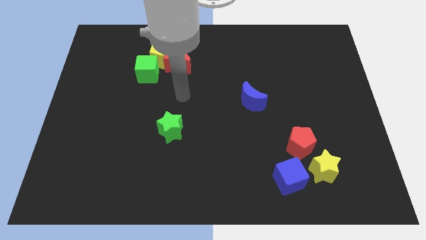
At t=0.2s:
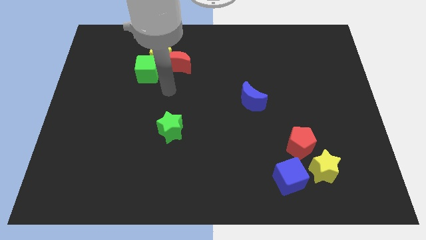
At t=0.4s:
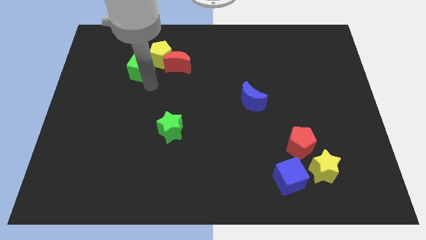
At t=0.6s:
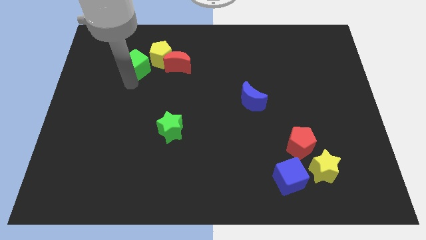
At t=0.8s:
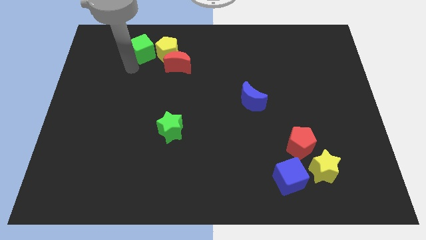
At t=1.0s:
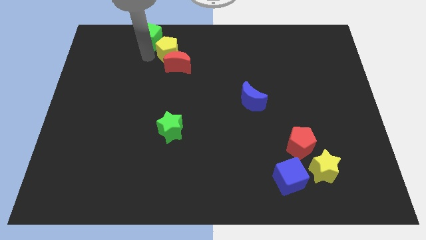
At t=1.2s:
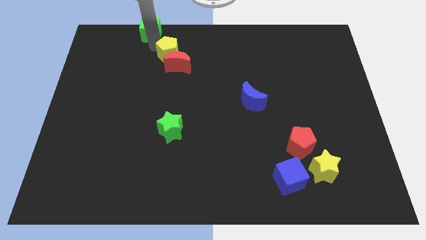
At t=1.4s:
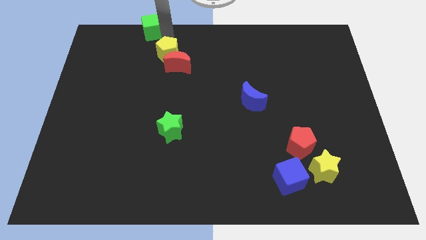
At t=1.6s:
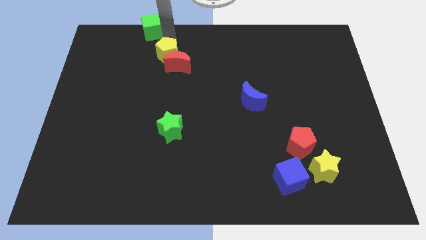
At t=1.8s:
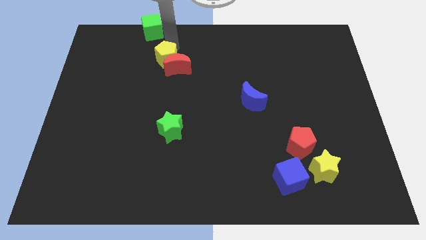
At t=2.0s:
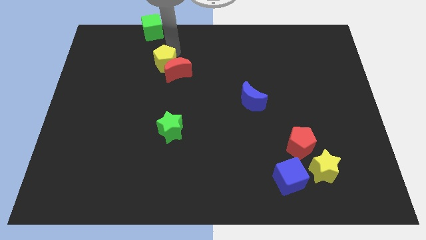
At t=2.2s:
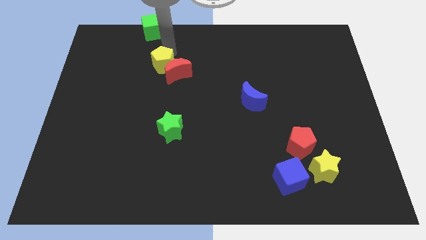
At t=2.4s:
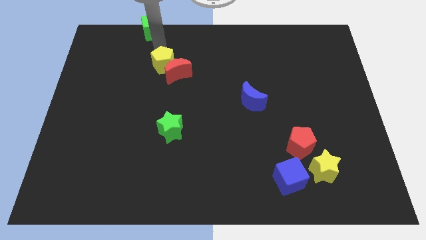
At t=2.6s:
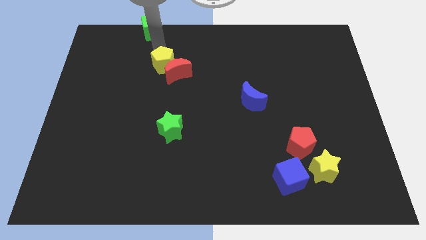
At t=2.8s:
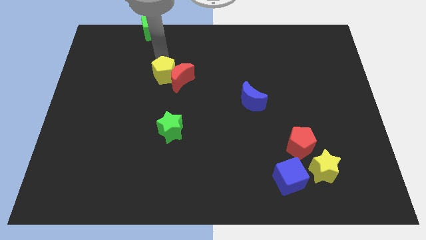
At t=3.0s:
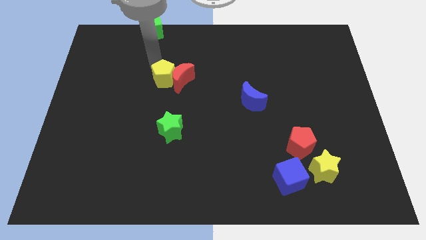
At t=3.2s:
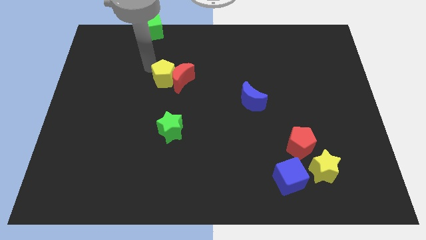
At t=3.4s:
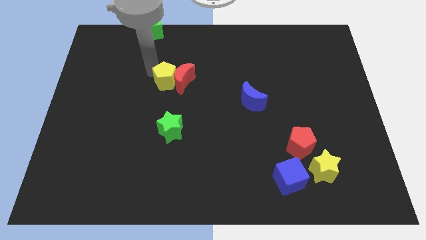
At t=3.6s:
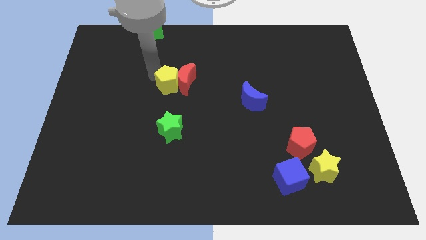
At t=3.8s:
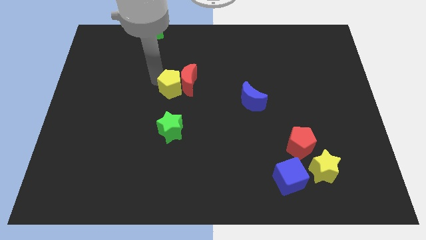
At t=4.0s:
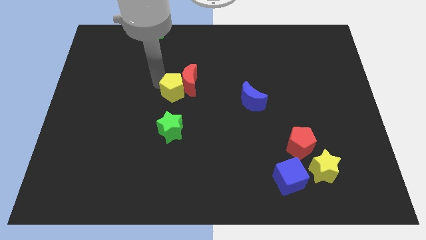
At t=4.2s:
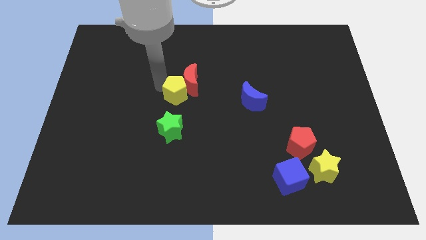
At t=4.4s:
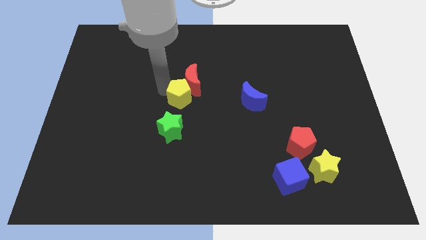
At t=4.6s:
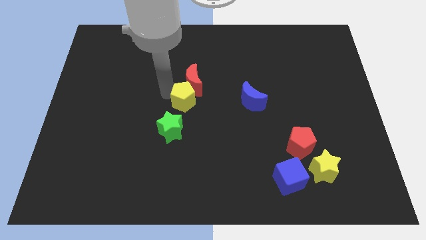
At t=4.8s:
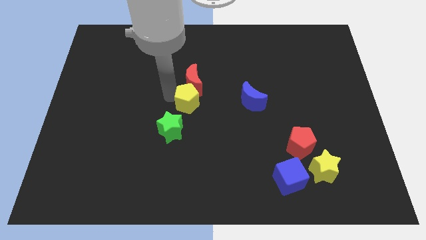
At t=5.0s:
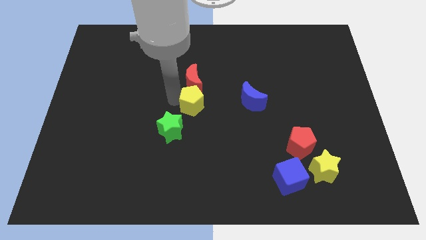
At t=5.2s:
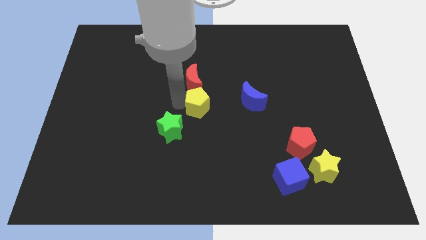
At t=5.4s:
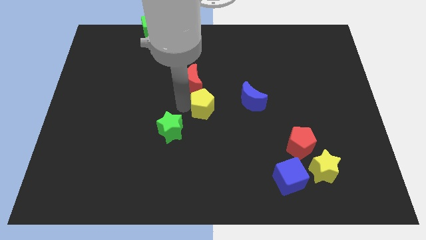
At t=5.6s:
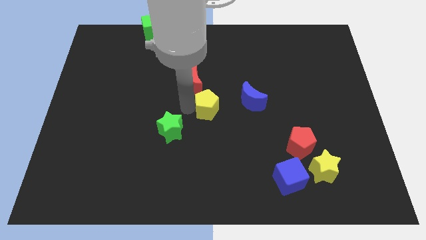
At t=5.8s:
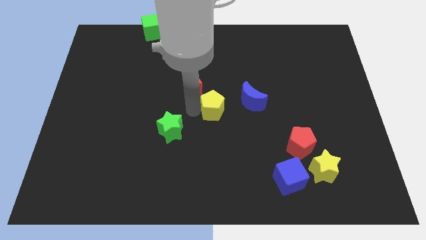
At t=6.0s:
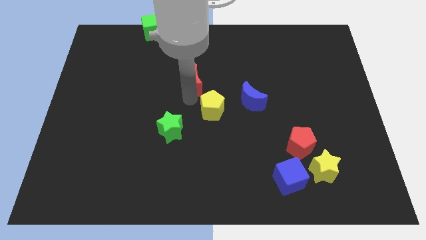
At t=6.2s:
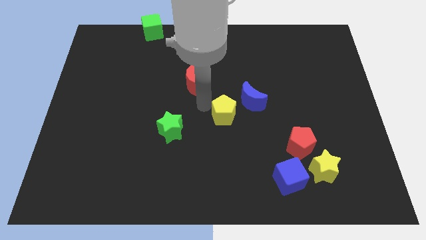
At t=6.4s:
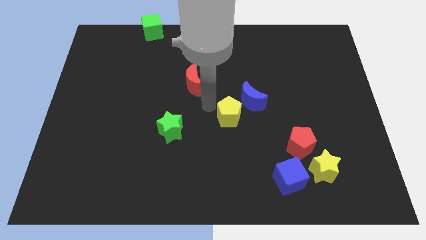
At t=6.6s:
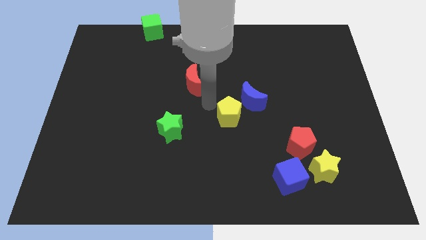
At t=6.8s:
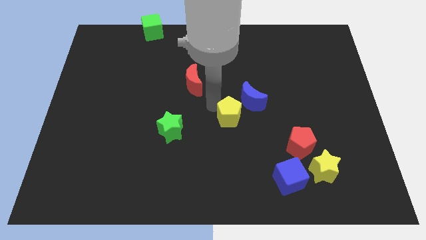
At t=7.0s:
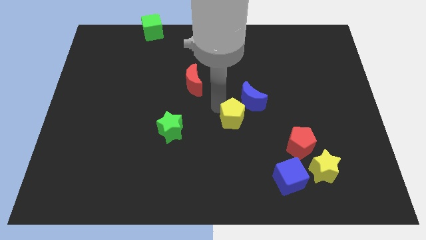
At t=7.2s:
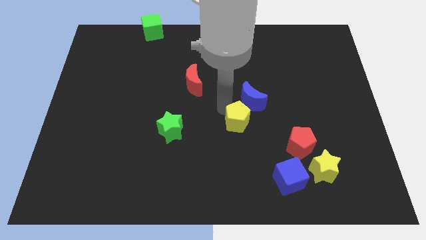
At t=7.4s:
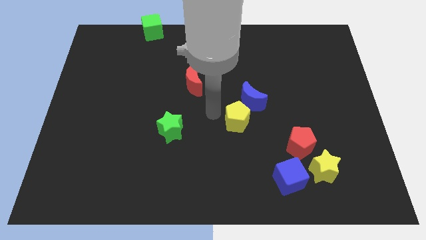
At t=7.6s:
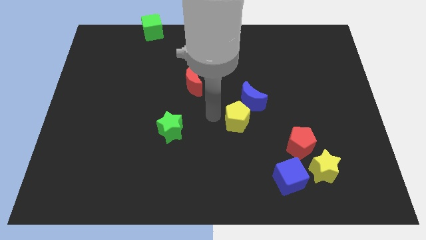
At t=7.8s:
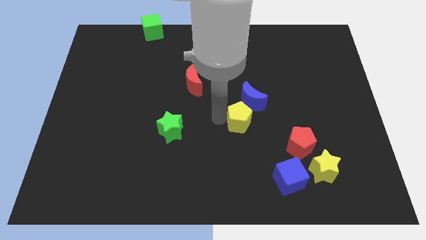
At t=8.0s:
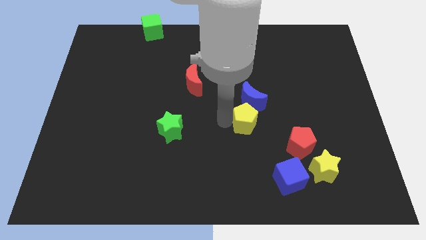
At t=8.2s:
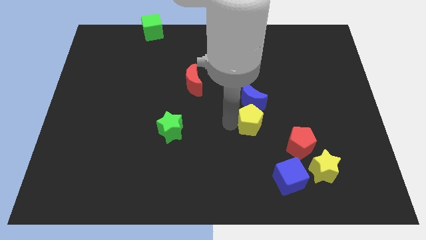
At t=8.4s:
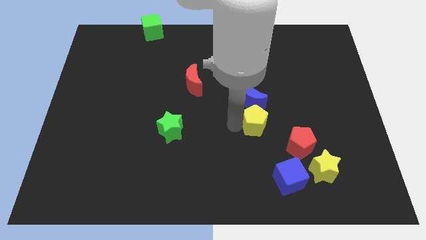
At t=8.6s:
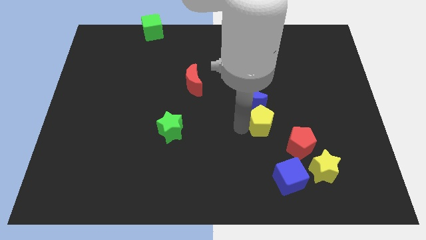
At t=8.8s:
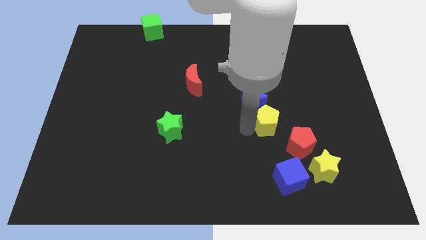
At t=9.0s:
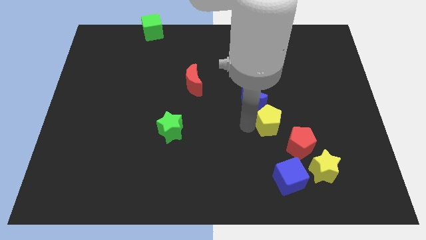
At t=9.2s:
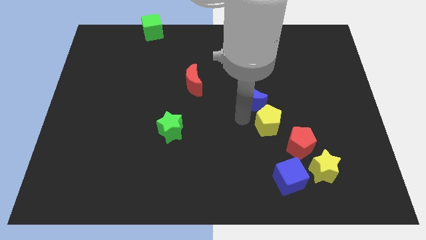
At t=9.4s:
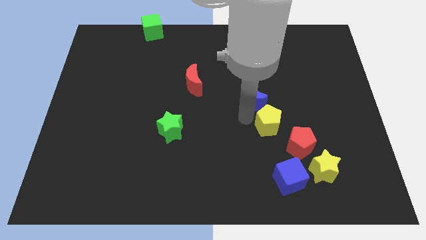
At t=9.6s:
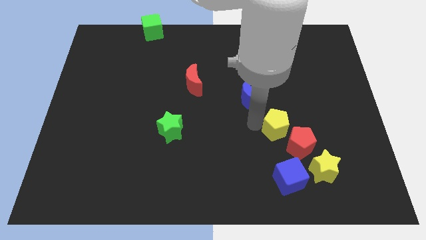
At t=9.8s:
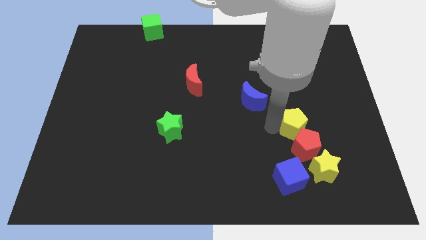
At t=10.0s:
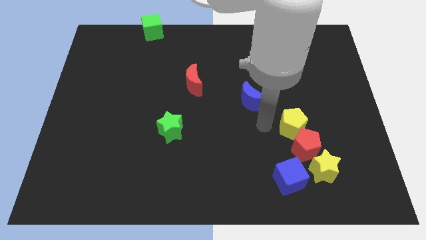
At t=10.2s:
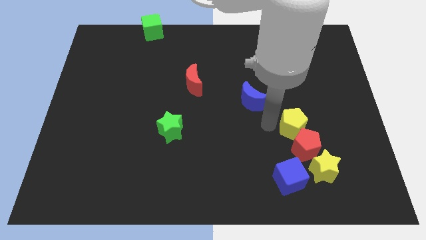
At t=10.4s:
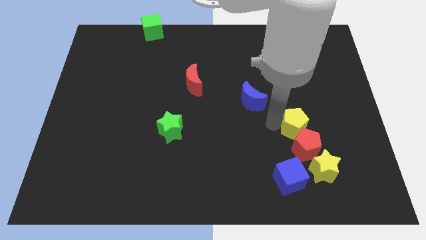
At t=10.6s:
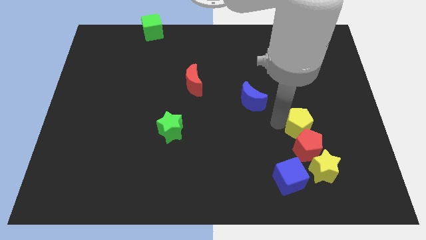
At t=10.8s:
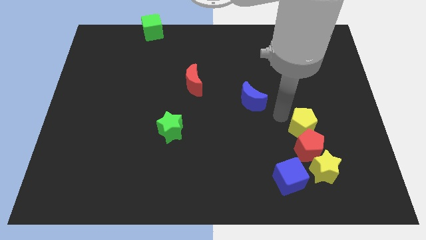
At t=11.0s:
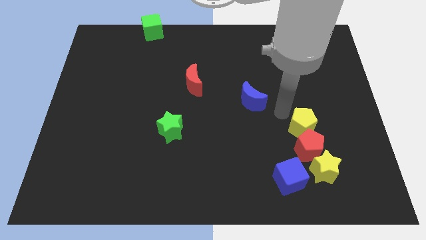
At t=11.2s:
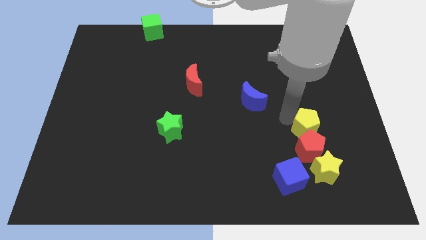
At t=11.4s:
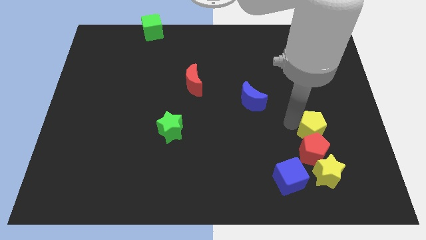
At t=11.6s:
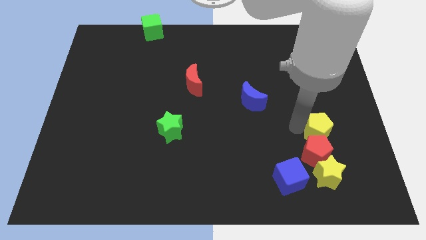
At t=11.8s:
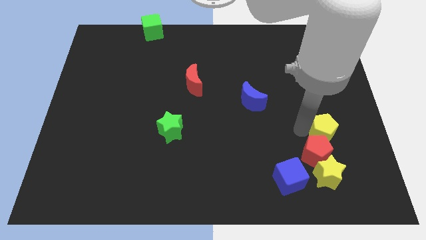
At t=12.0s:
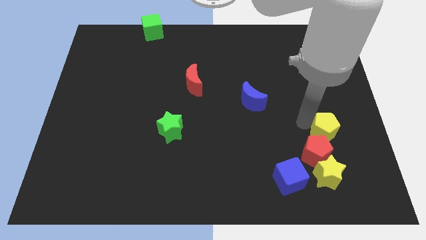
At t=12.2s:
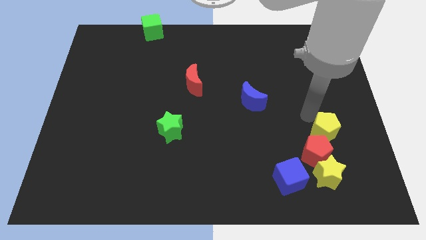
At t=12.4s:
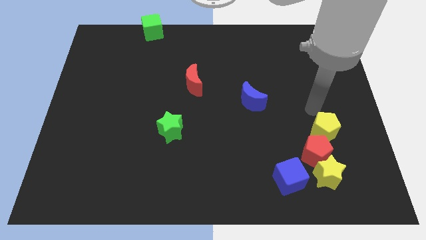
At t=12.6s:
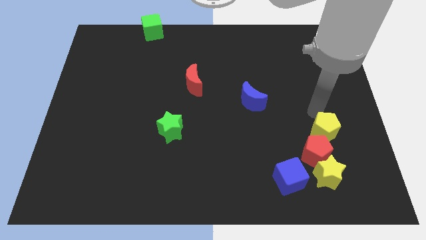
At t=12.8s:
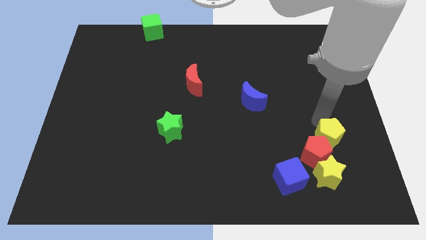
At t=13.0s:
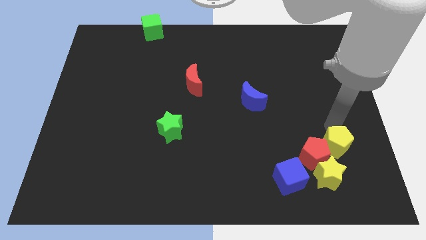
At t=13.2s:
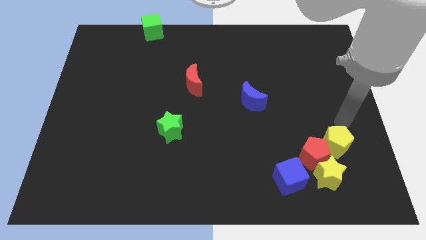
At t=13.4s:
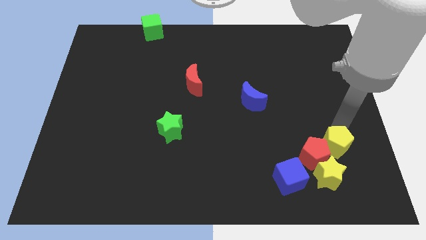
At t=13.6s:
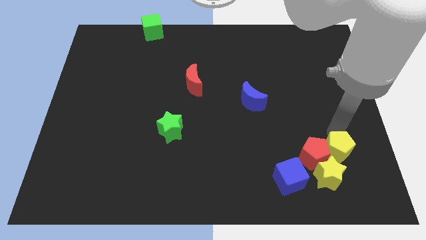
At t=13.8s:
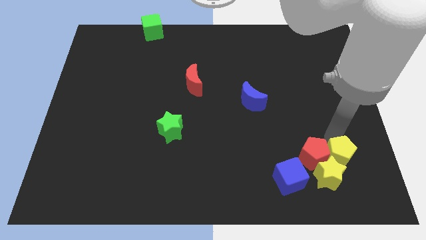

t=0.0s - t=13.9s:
slide the yellow pentagon close to the yellow star

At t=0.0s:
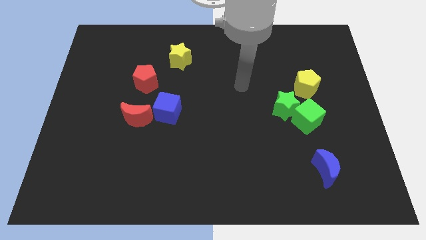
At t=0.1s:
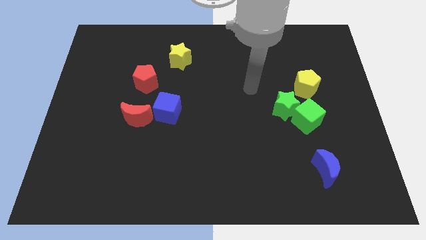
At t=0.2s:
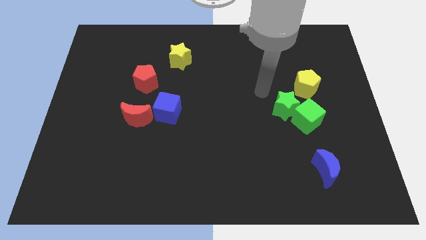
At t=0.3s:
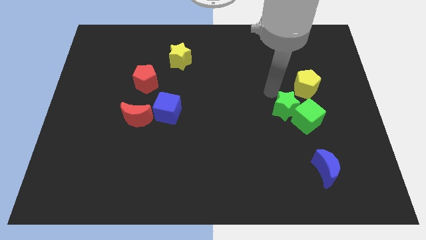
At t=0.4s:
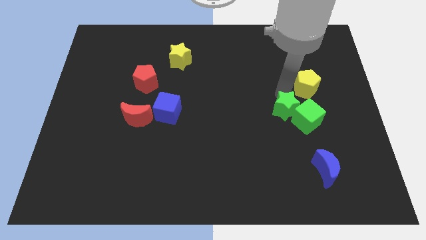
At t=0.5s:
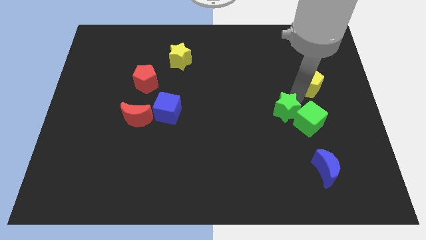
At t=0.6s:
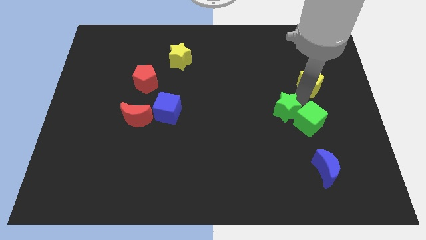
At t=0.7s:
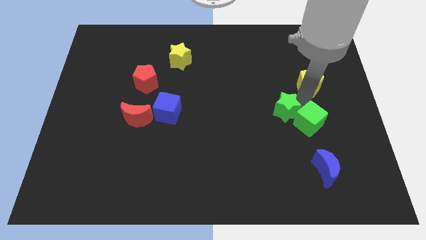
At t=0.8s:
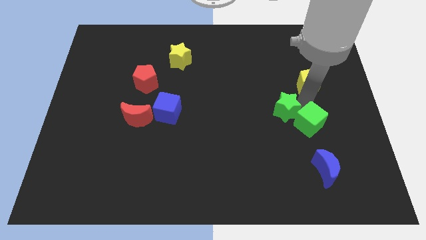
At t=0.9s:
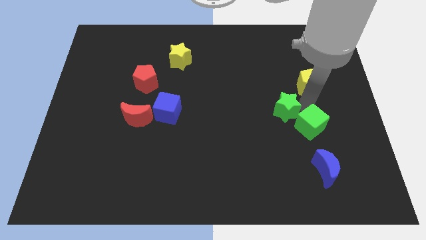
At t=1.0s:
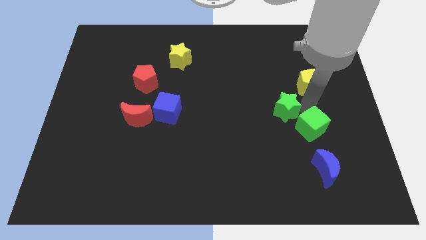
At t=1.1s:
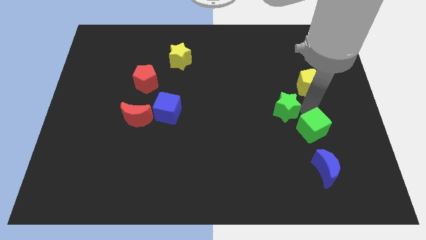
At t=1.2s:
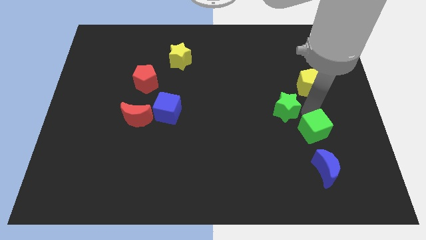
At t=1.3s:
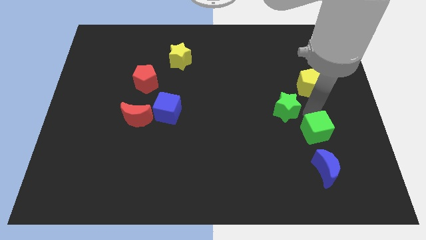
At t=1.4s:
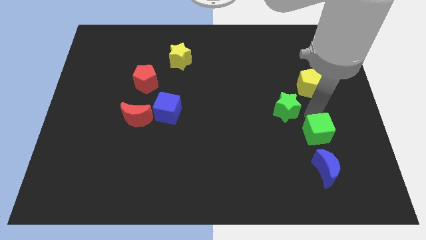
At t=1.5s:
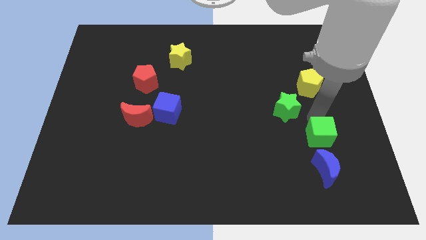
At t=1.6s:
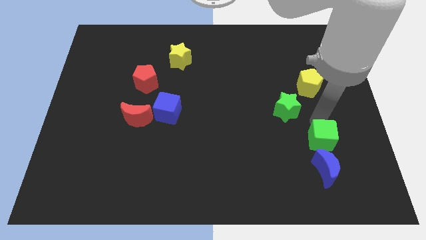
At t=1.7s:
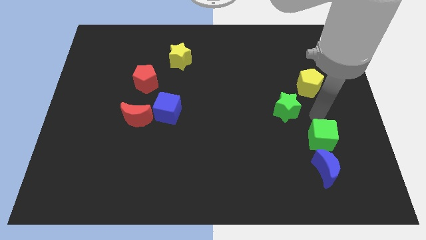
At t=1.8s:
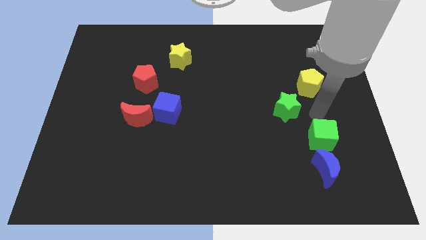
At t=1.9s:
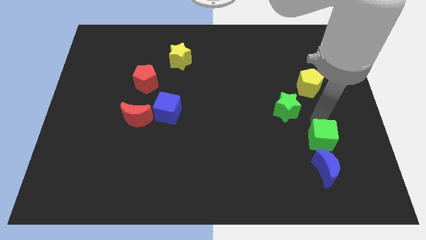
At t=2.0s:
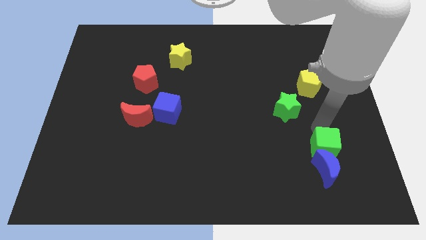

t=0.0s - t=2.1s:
move the green cube close to the blue moon
